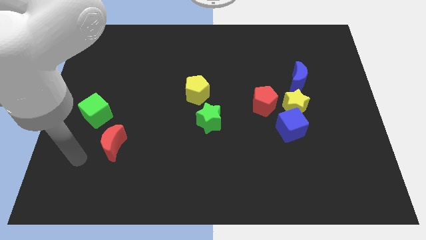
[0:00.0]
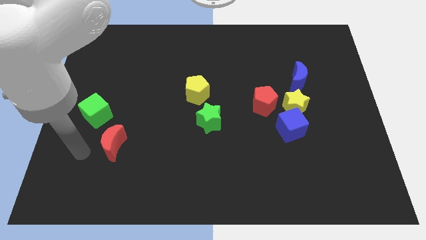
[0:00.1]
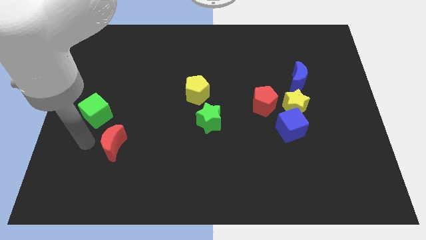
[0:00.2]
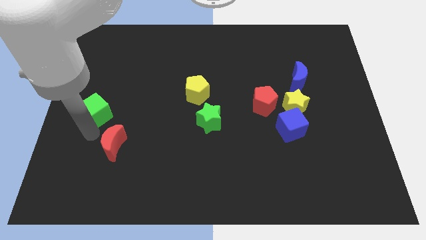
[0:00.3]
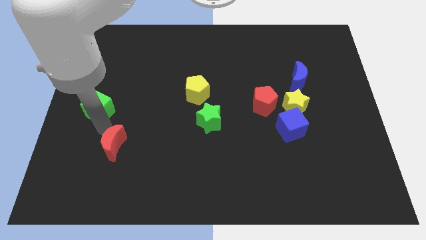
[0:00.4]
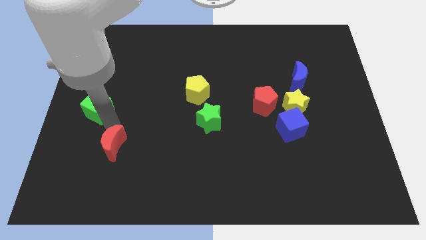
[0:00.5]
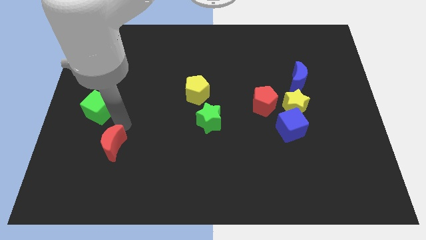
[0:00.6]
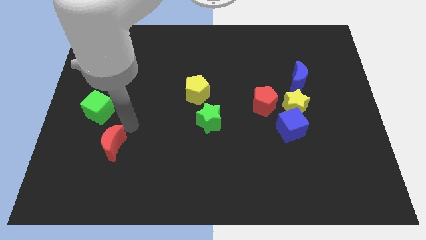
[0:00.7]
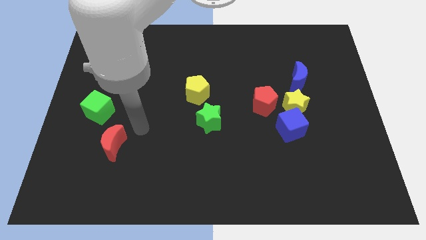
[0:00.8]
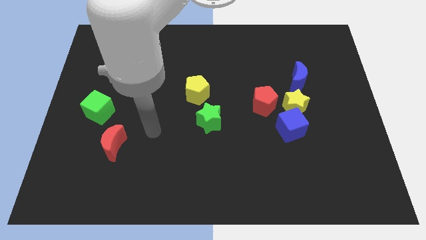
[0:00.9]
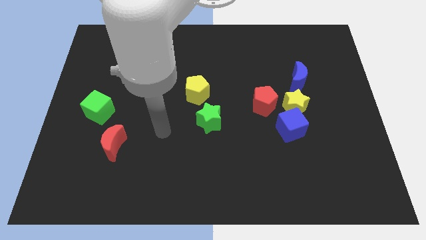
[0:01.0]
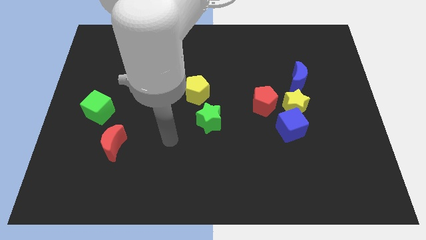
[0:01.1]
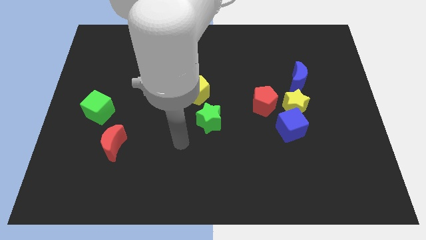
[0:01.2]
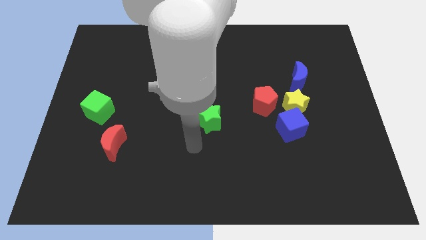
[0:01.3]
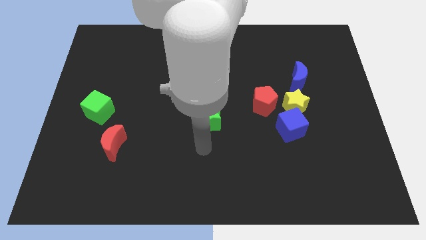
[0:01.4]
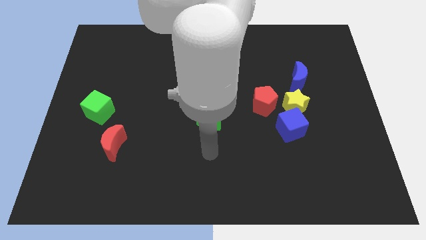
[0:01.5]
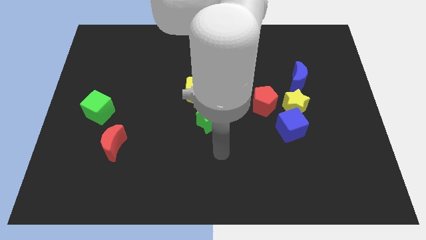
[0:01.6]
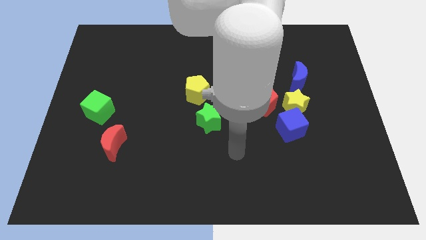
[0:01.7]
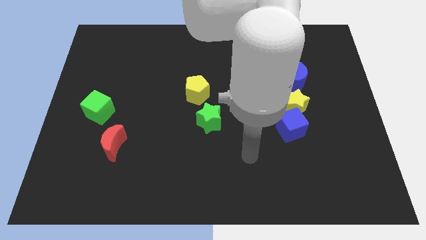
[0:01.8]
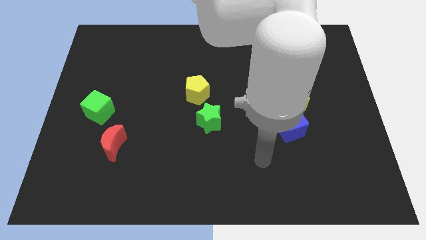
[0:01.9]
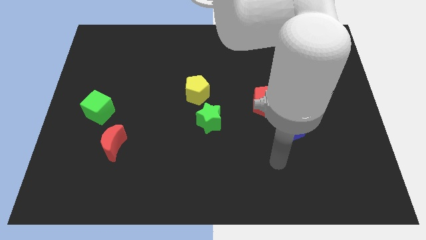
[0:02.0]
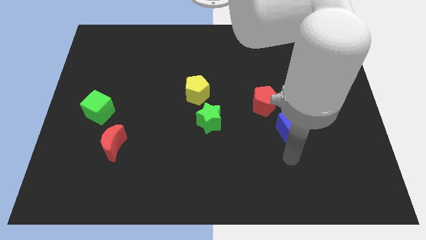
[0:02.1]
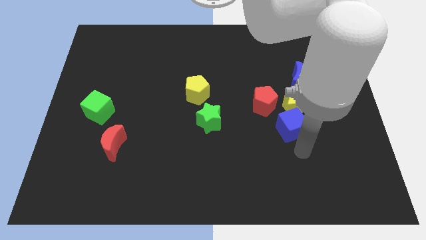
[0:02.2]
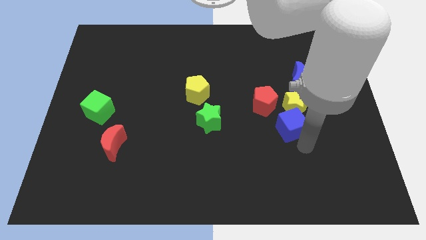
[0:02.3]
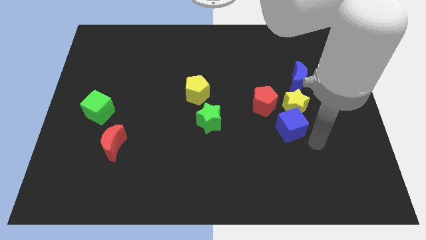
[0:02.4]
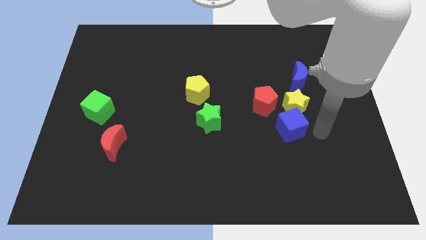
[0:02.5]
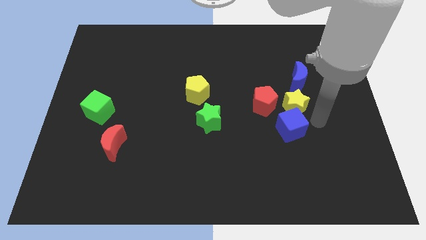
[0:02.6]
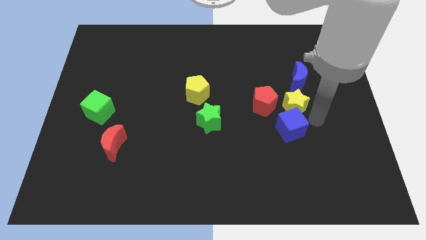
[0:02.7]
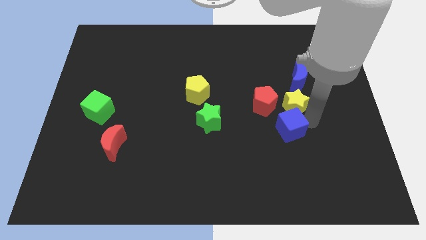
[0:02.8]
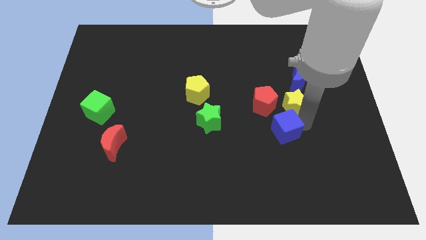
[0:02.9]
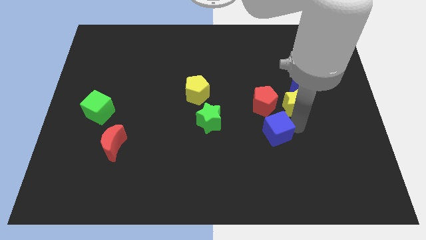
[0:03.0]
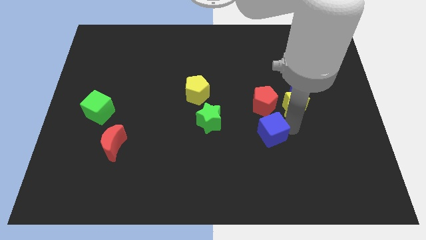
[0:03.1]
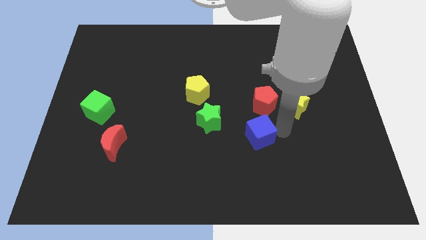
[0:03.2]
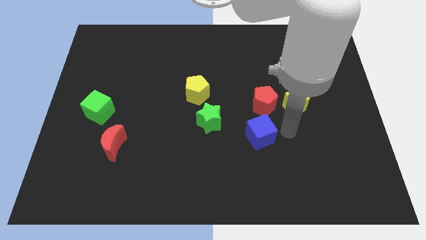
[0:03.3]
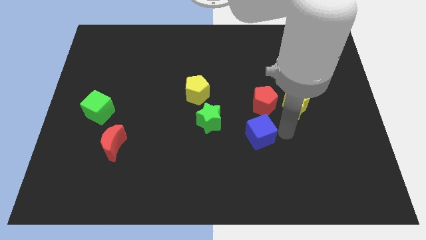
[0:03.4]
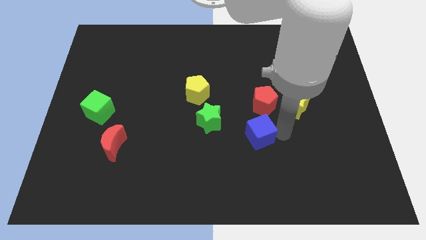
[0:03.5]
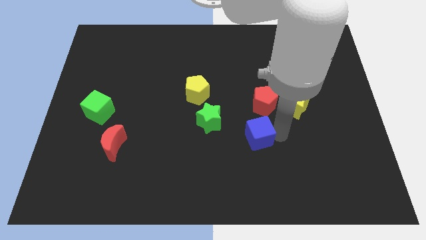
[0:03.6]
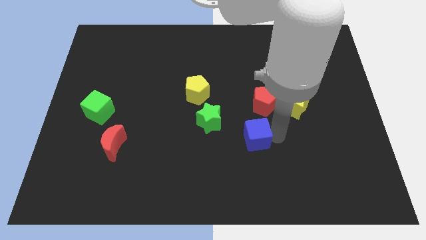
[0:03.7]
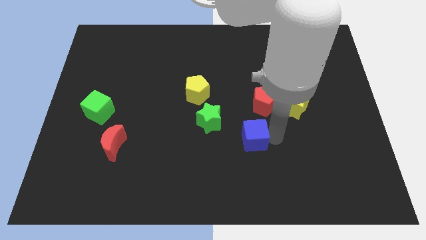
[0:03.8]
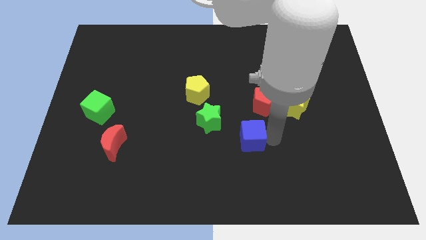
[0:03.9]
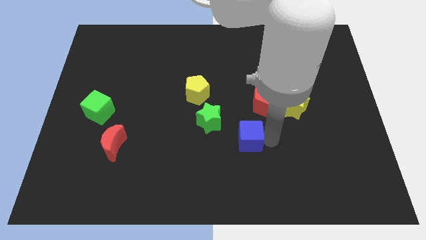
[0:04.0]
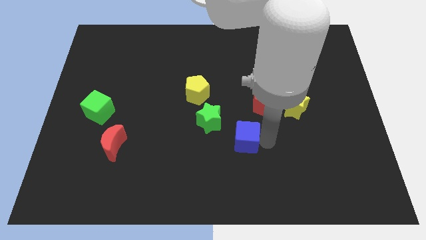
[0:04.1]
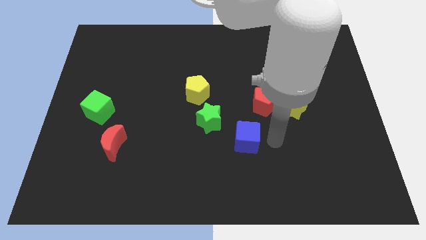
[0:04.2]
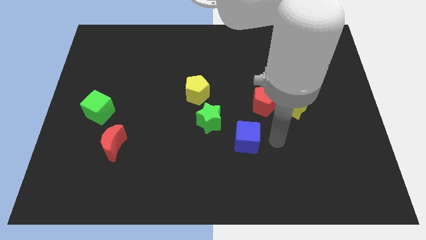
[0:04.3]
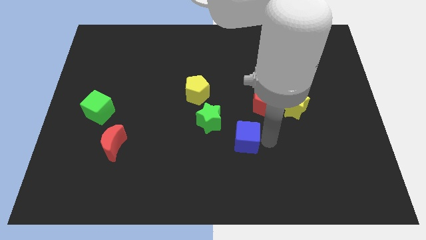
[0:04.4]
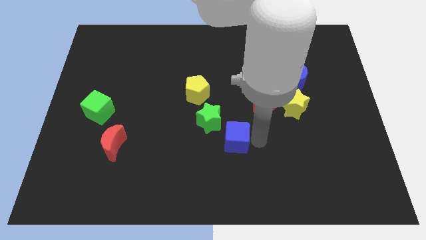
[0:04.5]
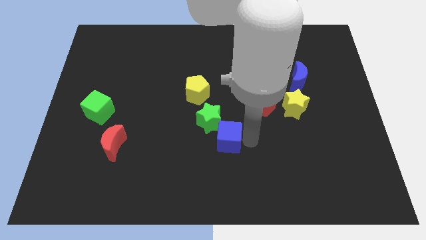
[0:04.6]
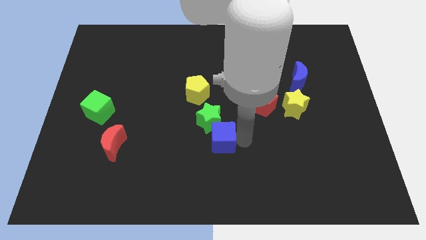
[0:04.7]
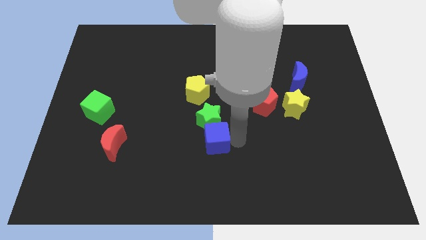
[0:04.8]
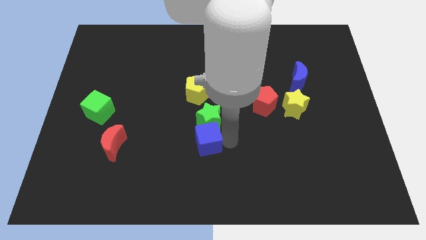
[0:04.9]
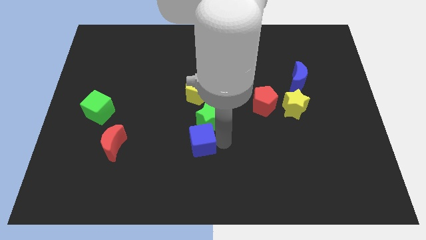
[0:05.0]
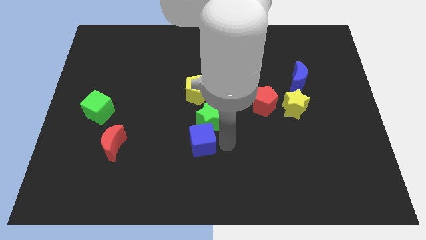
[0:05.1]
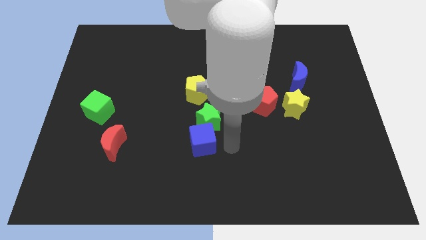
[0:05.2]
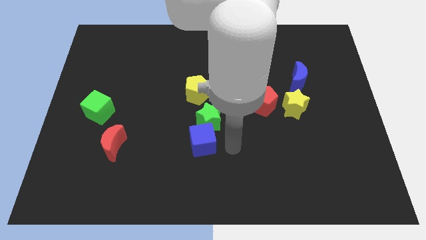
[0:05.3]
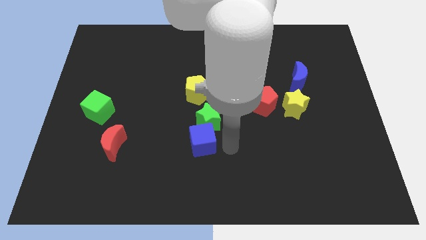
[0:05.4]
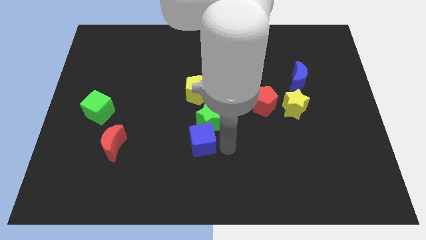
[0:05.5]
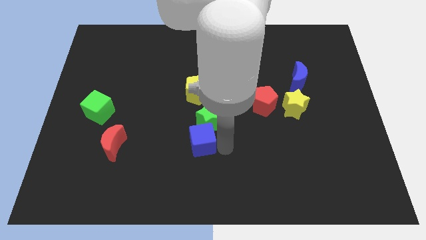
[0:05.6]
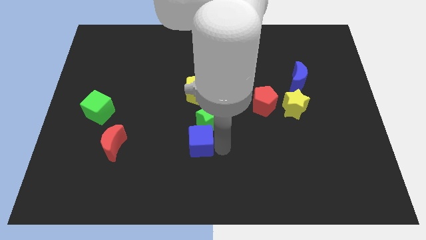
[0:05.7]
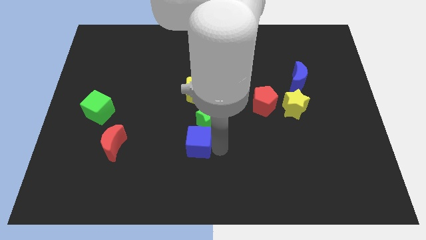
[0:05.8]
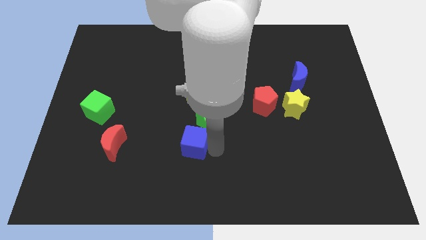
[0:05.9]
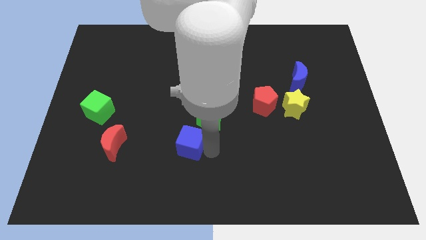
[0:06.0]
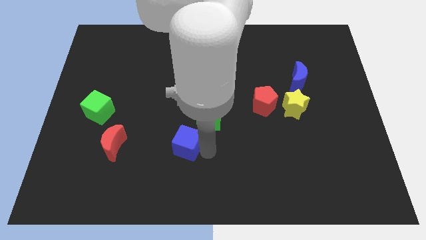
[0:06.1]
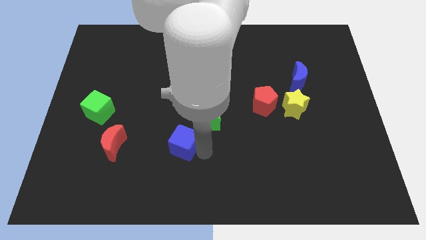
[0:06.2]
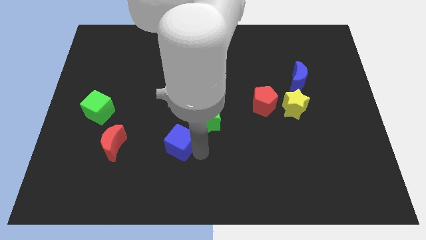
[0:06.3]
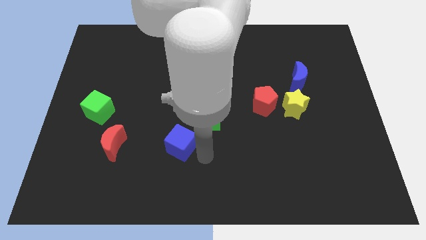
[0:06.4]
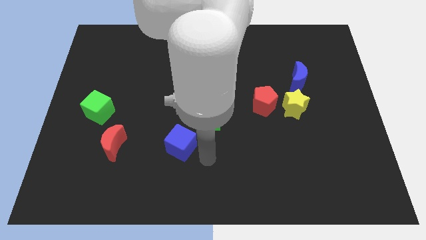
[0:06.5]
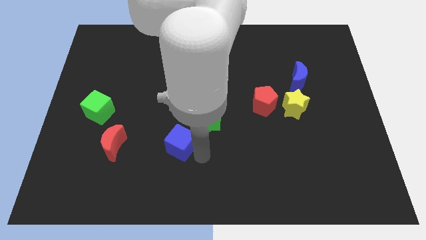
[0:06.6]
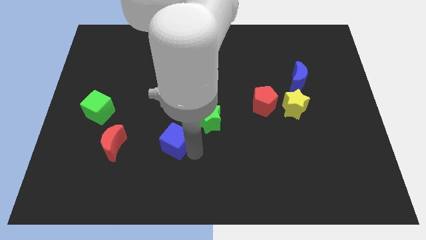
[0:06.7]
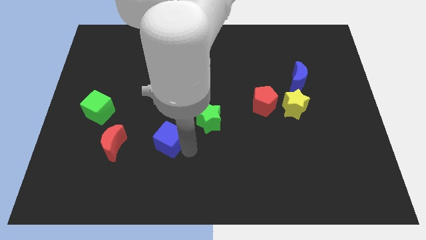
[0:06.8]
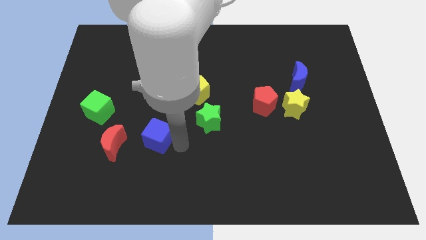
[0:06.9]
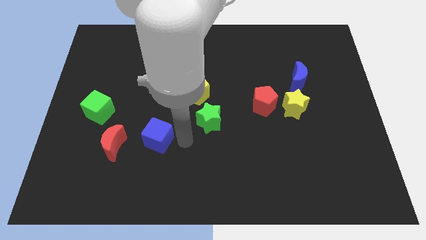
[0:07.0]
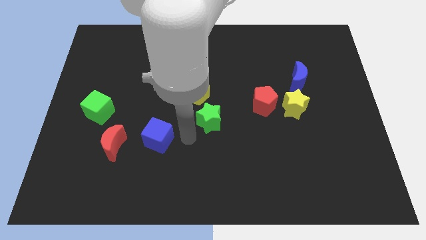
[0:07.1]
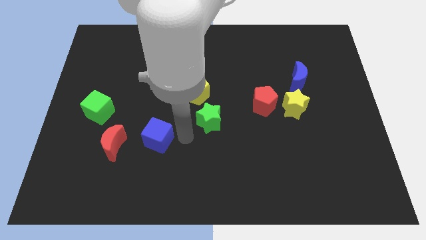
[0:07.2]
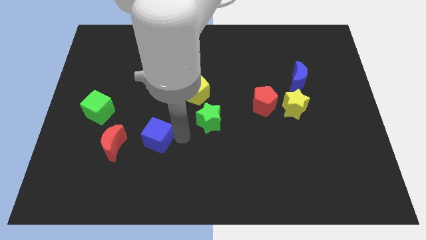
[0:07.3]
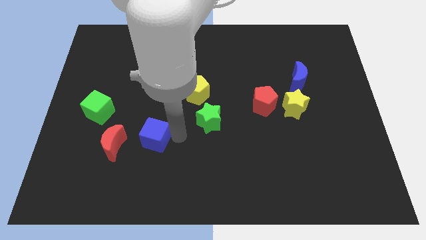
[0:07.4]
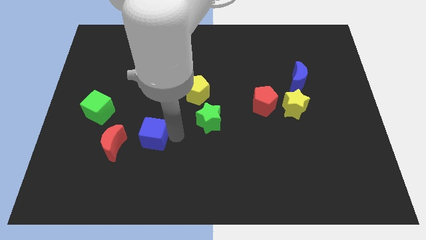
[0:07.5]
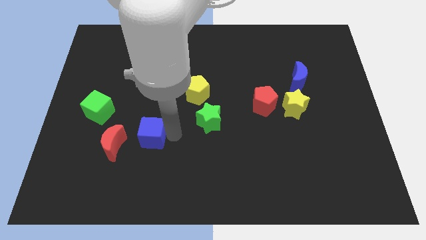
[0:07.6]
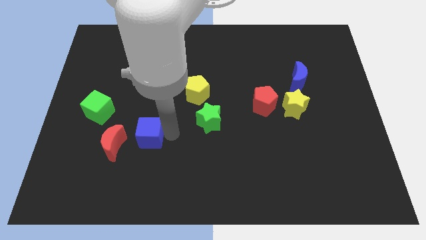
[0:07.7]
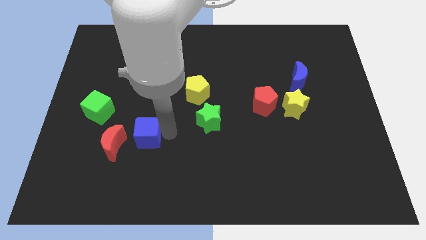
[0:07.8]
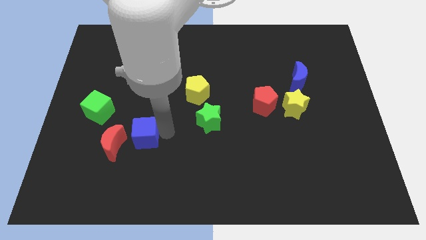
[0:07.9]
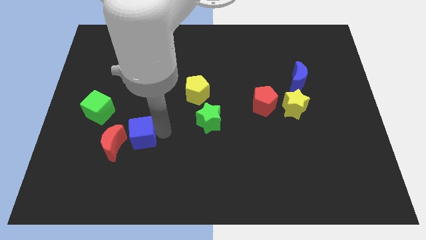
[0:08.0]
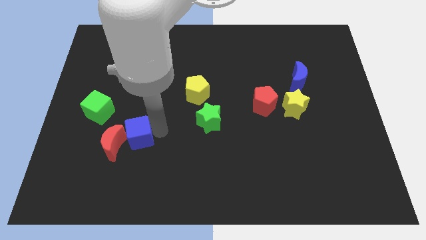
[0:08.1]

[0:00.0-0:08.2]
move the blue cube next to the red moon
